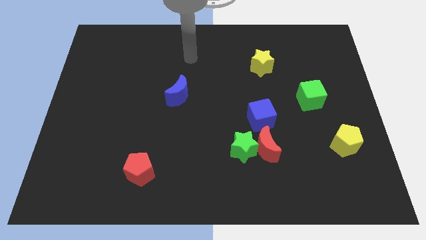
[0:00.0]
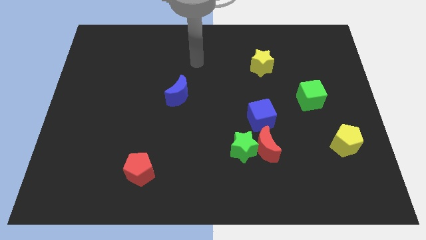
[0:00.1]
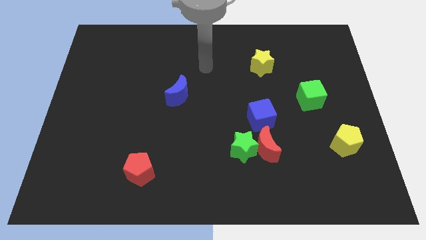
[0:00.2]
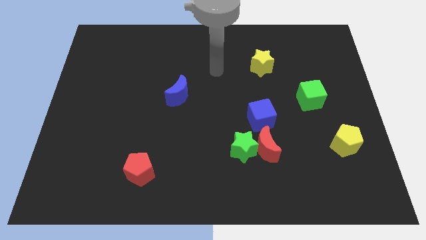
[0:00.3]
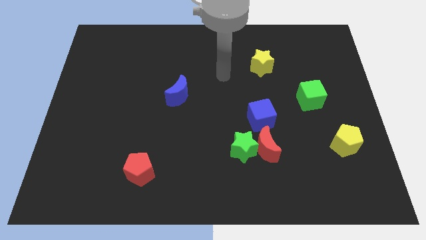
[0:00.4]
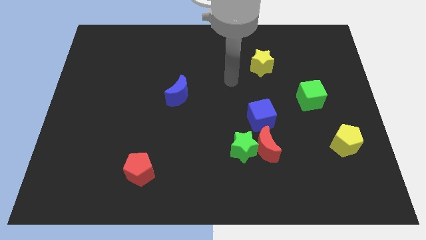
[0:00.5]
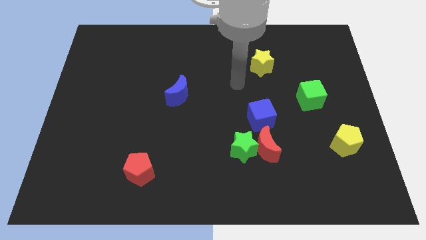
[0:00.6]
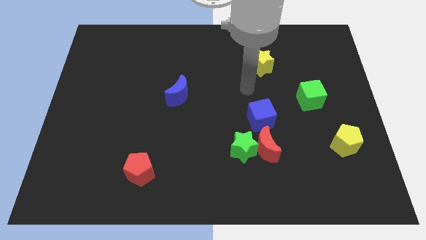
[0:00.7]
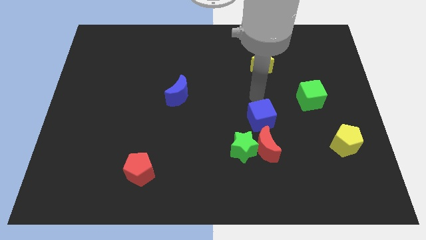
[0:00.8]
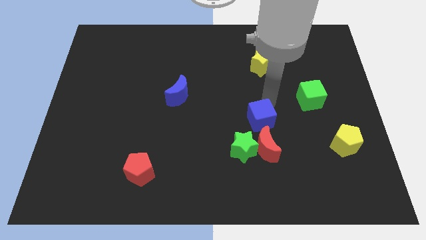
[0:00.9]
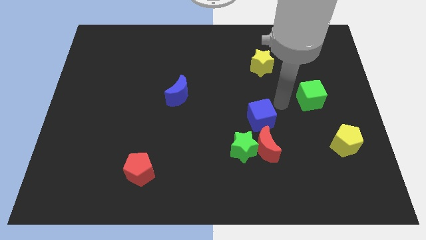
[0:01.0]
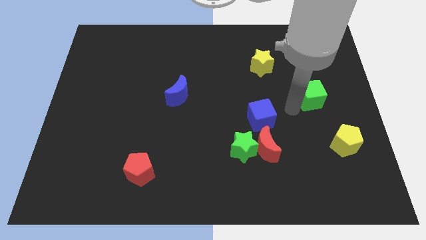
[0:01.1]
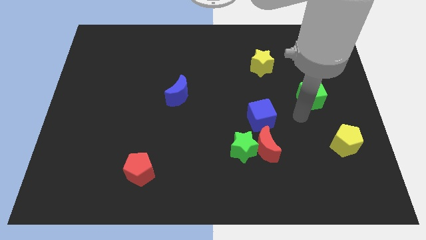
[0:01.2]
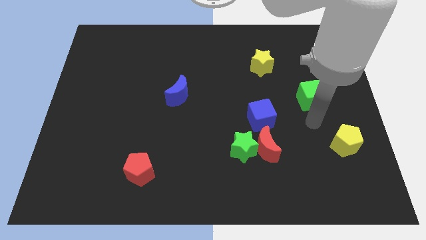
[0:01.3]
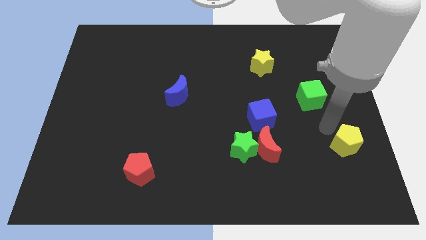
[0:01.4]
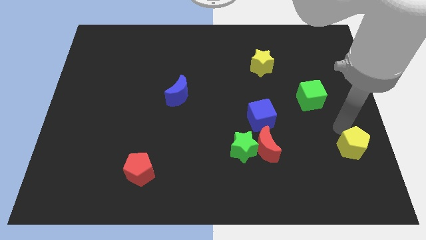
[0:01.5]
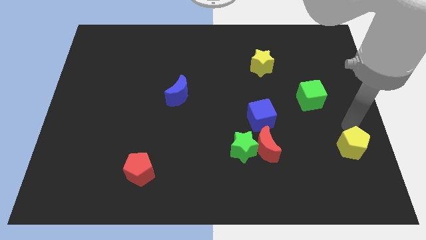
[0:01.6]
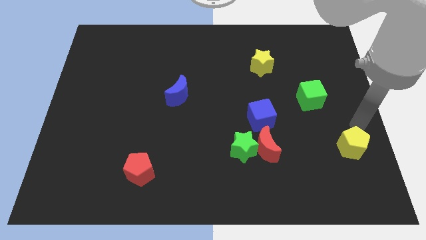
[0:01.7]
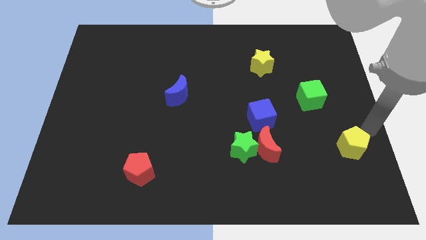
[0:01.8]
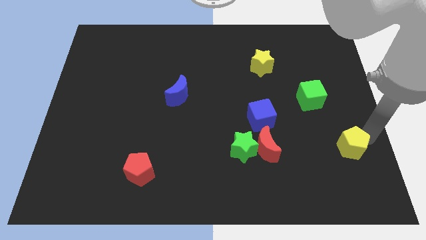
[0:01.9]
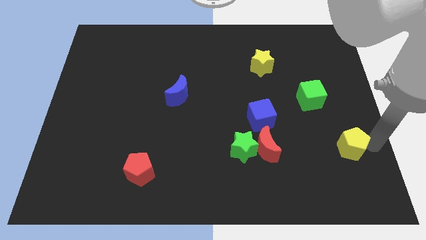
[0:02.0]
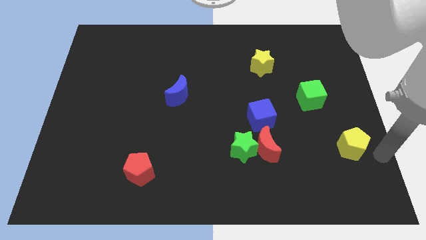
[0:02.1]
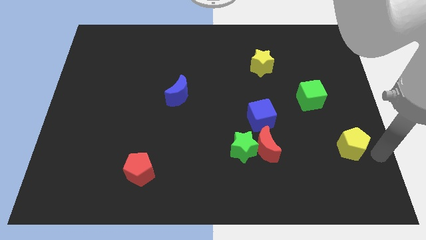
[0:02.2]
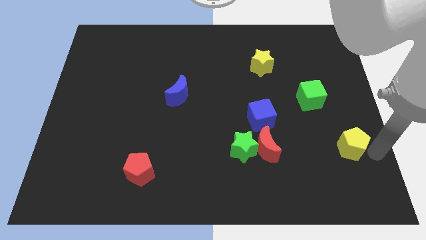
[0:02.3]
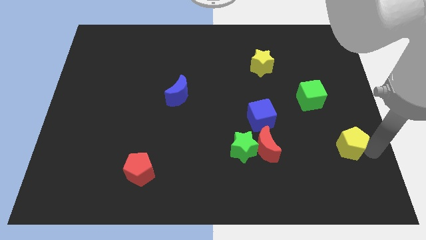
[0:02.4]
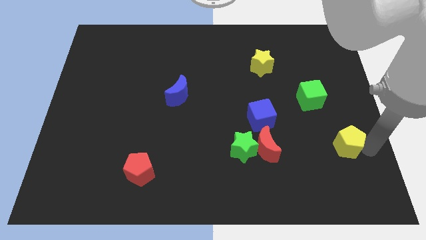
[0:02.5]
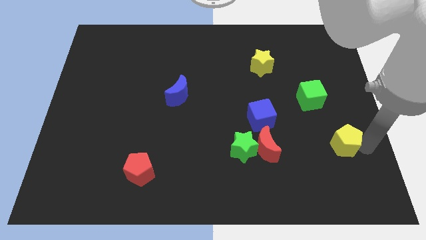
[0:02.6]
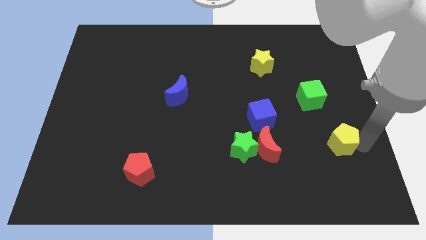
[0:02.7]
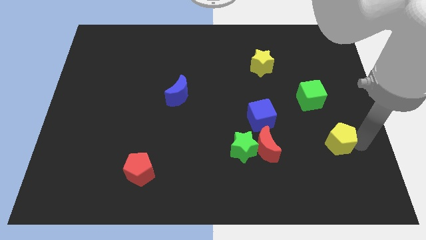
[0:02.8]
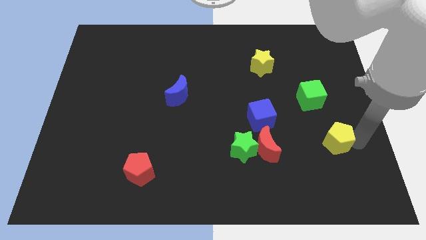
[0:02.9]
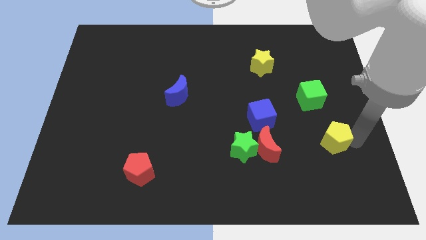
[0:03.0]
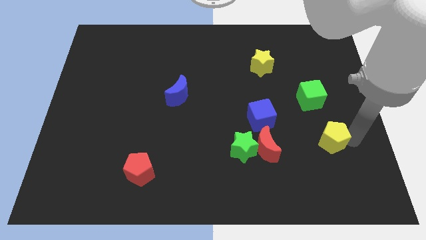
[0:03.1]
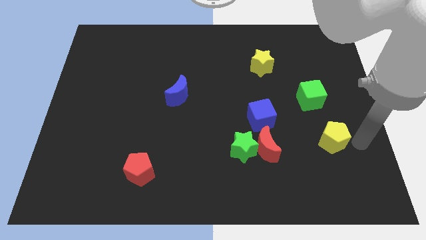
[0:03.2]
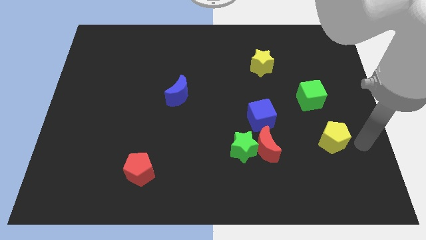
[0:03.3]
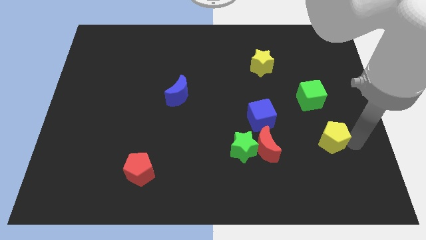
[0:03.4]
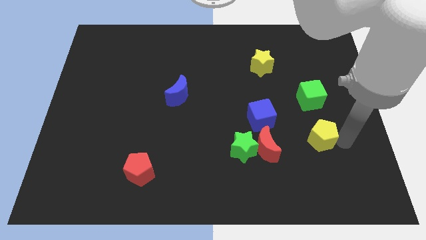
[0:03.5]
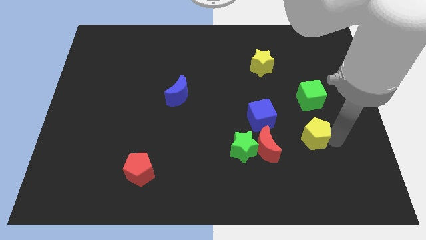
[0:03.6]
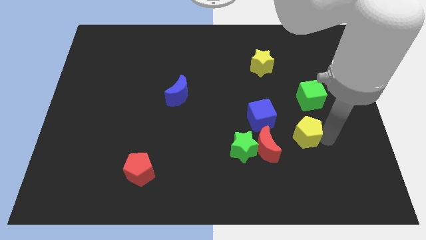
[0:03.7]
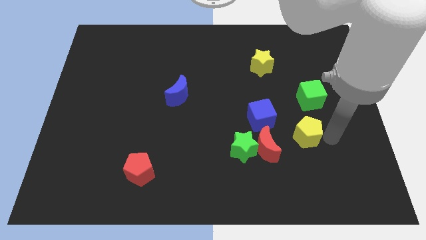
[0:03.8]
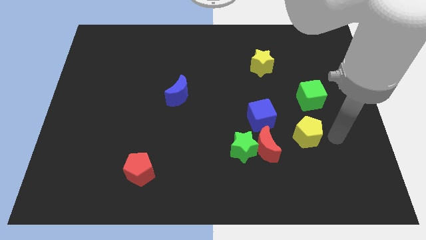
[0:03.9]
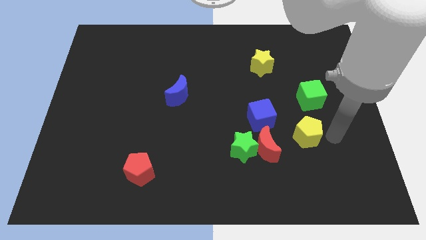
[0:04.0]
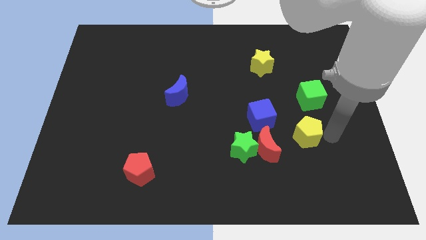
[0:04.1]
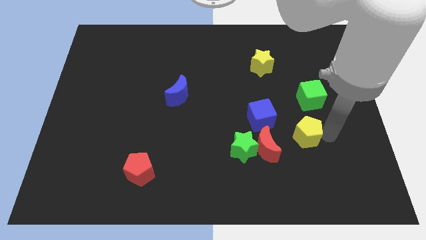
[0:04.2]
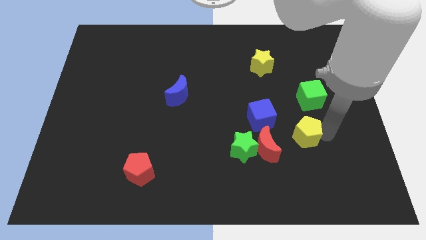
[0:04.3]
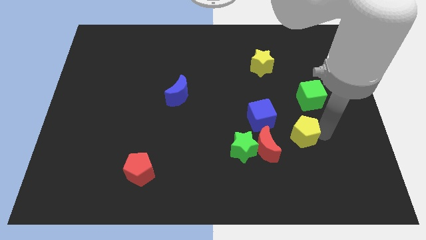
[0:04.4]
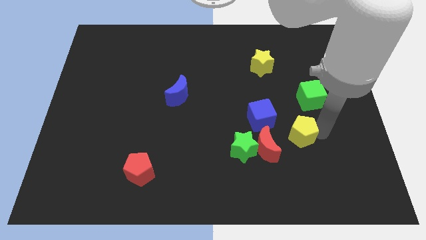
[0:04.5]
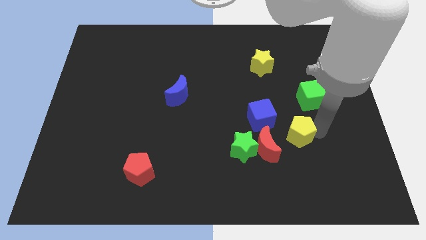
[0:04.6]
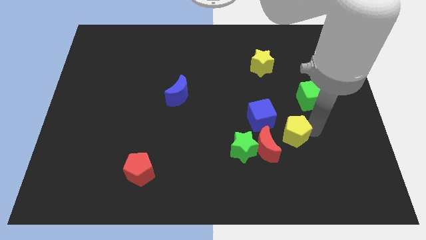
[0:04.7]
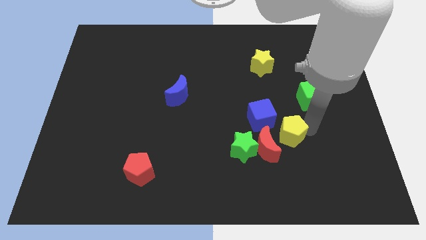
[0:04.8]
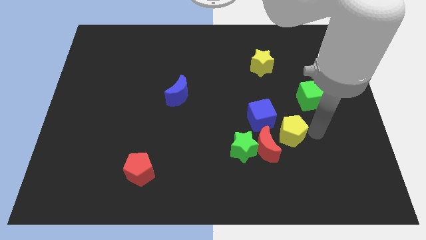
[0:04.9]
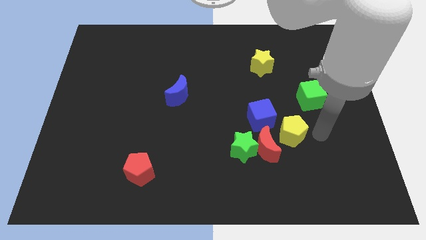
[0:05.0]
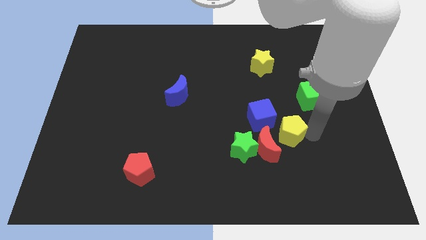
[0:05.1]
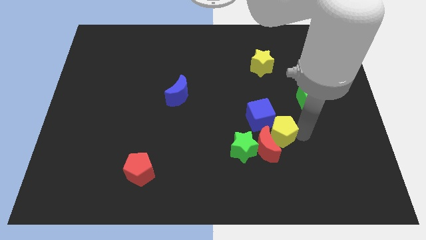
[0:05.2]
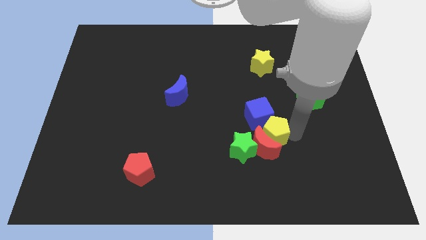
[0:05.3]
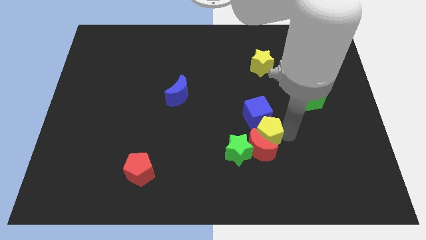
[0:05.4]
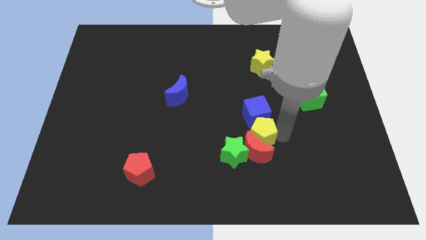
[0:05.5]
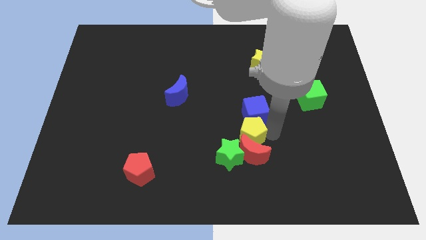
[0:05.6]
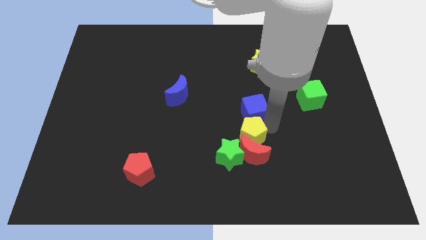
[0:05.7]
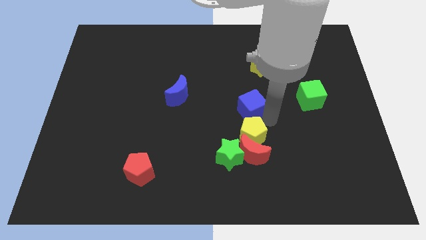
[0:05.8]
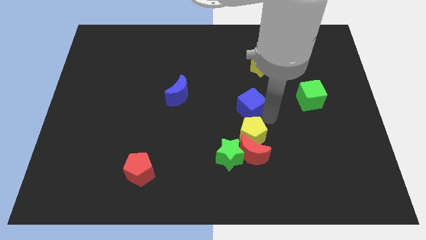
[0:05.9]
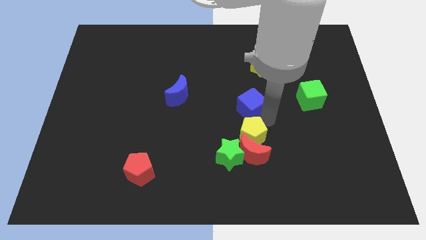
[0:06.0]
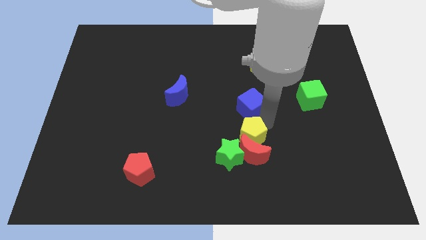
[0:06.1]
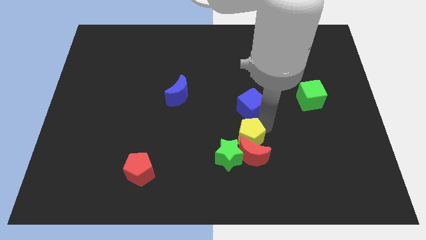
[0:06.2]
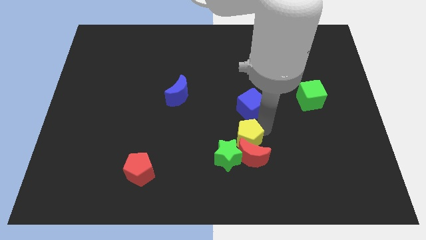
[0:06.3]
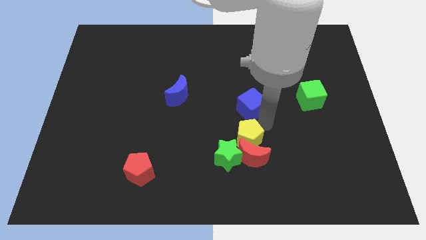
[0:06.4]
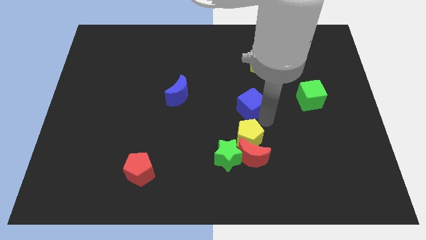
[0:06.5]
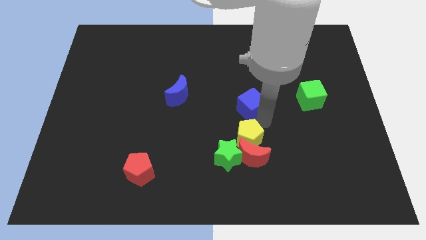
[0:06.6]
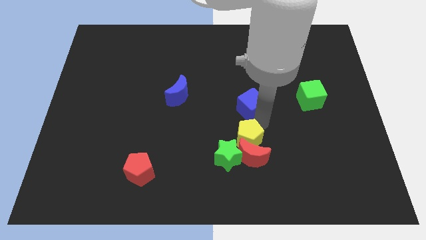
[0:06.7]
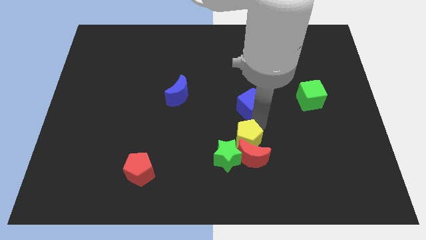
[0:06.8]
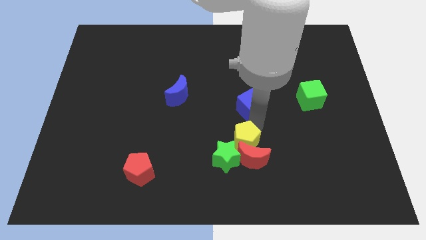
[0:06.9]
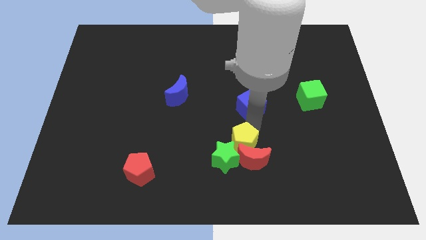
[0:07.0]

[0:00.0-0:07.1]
slide the yellow pentagon close to the green star
